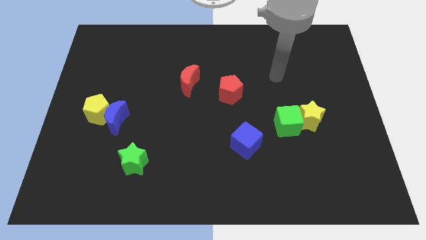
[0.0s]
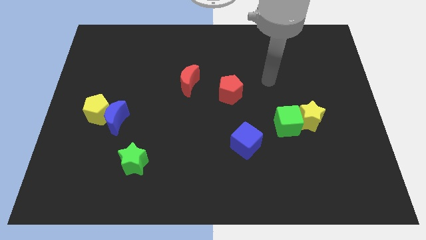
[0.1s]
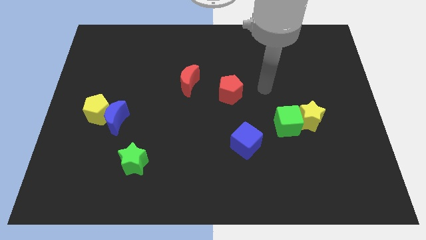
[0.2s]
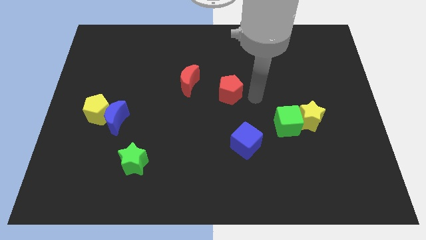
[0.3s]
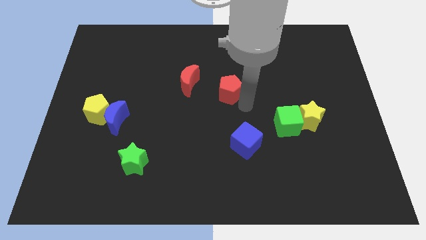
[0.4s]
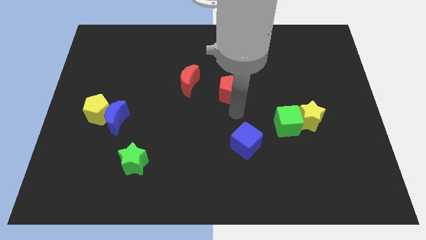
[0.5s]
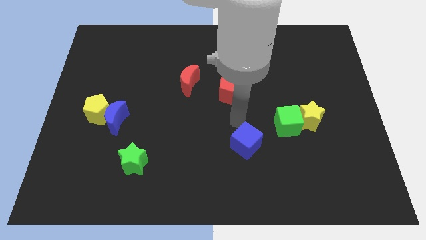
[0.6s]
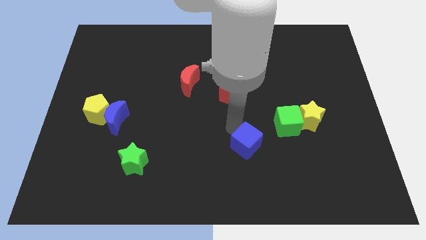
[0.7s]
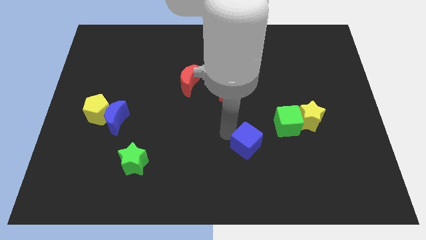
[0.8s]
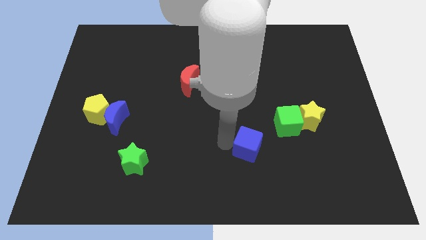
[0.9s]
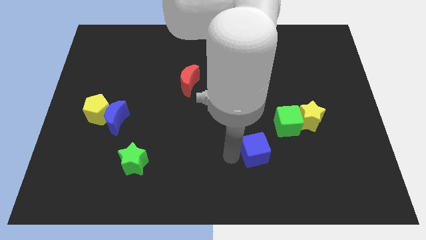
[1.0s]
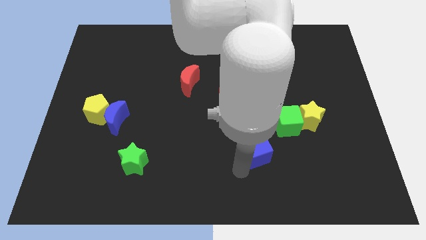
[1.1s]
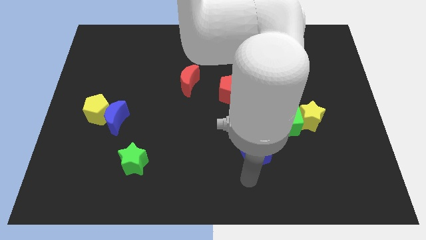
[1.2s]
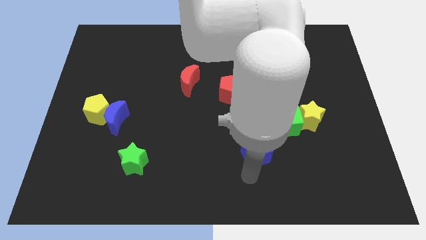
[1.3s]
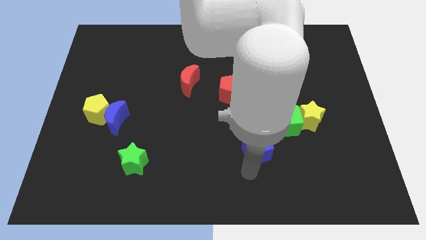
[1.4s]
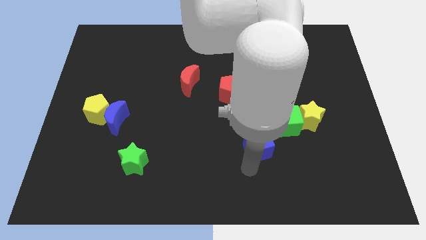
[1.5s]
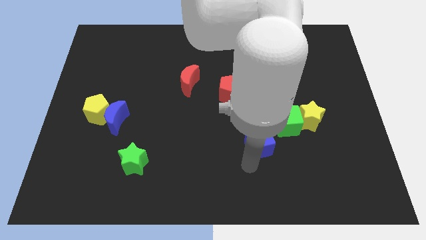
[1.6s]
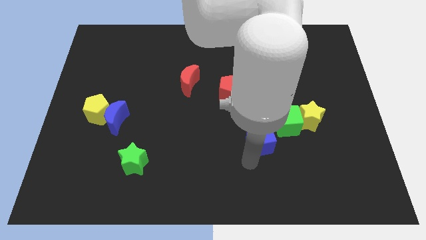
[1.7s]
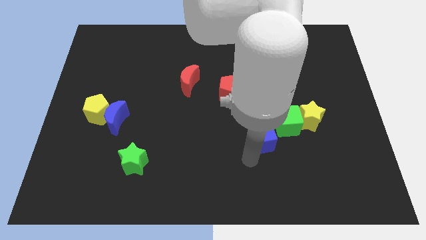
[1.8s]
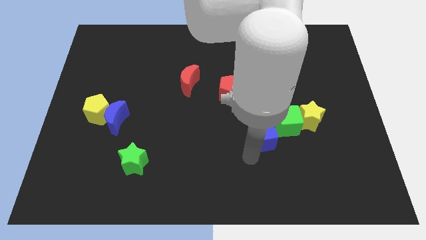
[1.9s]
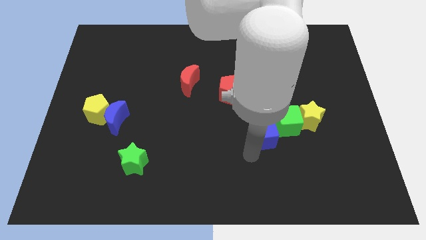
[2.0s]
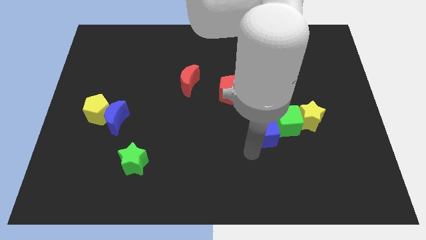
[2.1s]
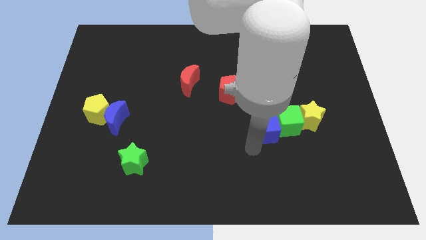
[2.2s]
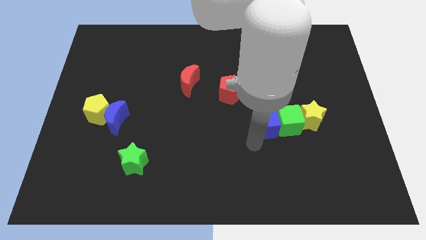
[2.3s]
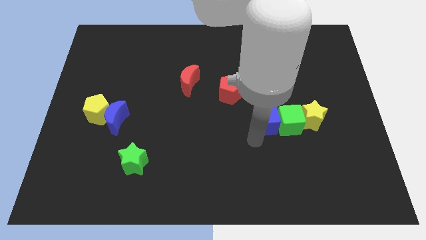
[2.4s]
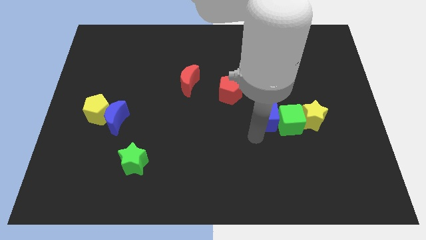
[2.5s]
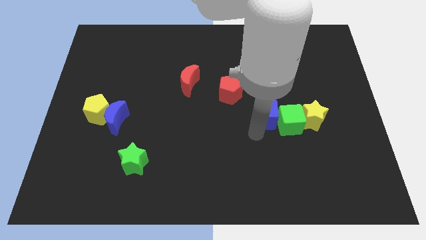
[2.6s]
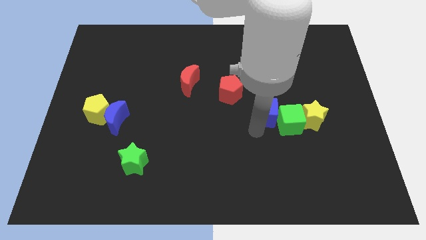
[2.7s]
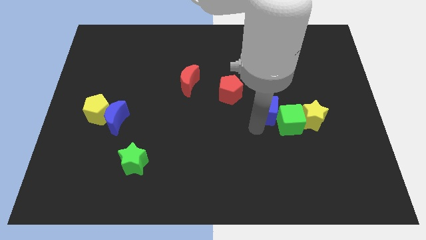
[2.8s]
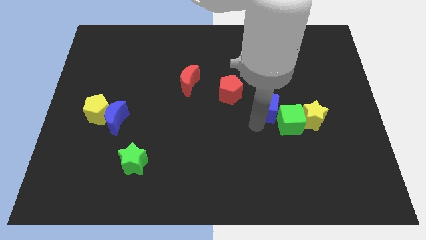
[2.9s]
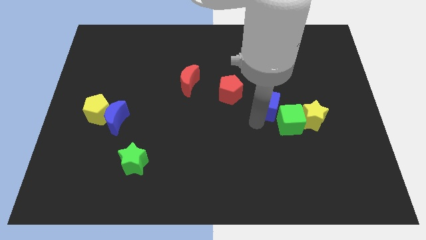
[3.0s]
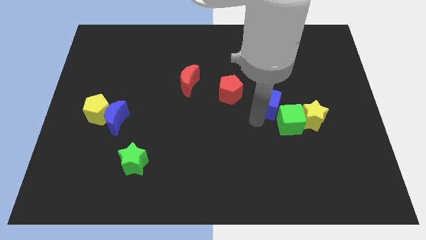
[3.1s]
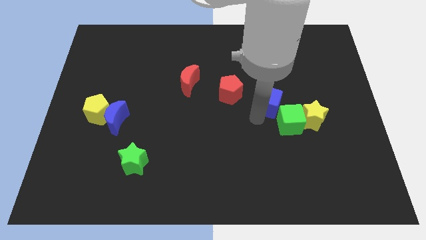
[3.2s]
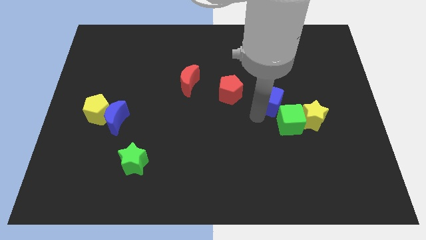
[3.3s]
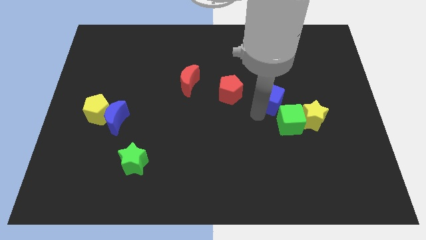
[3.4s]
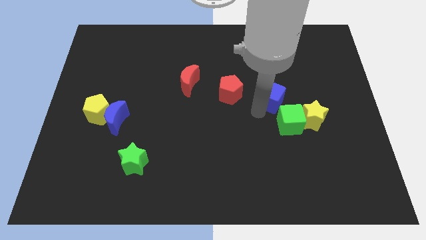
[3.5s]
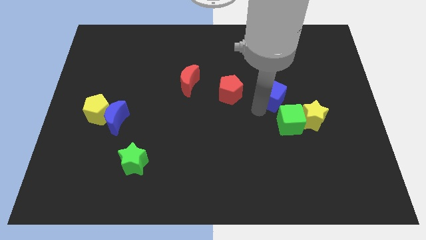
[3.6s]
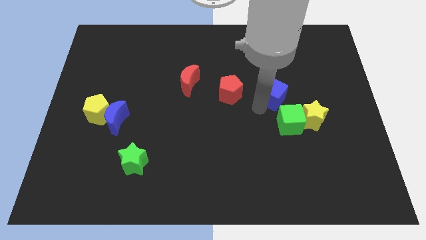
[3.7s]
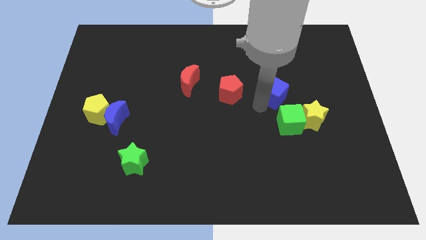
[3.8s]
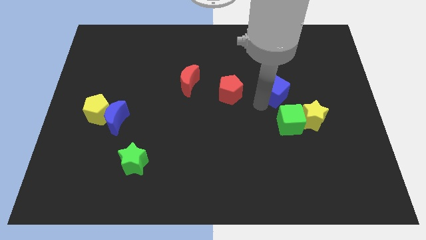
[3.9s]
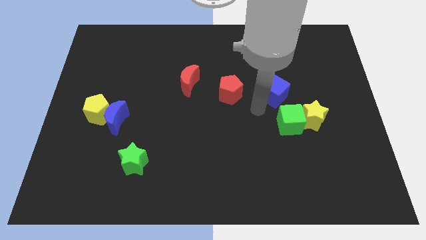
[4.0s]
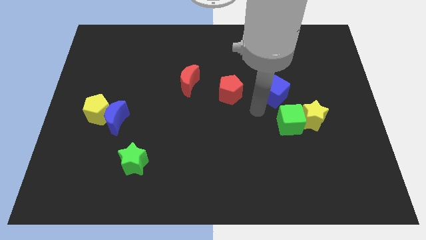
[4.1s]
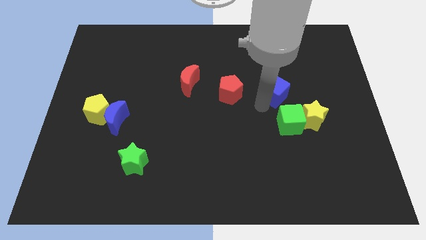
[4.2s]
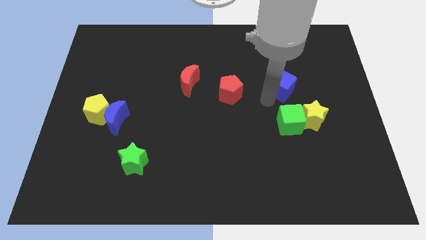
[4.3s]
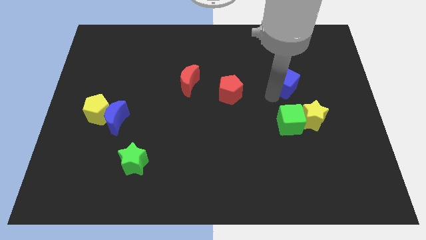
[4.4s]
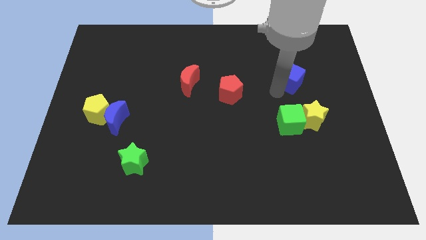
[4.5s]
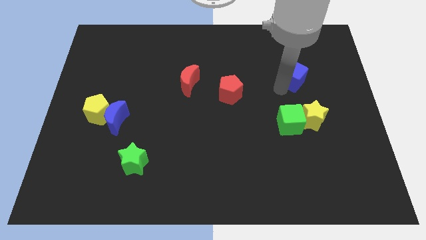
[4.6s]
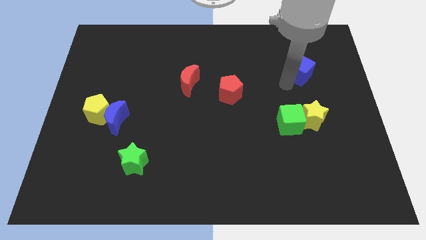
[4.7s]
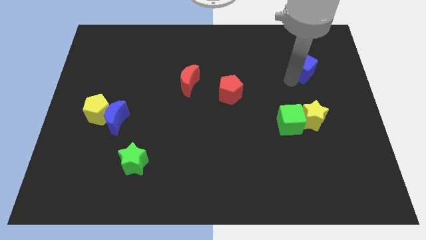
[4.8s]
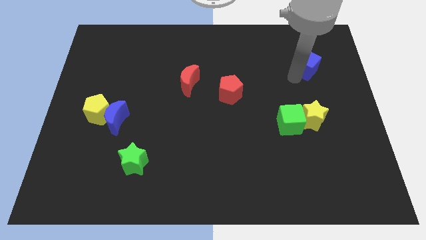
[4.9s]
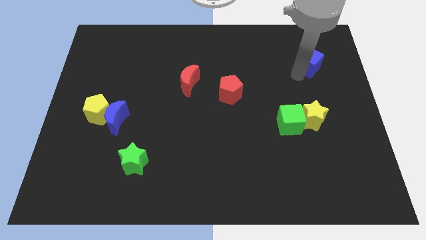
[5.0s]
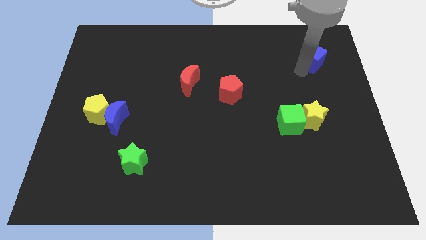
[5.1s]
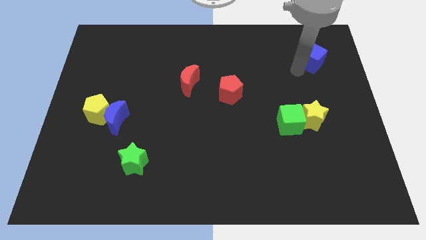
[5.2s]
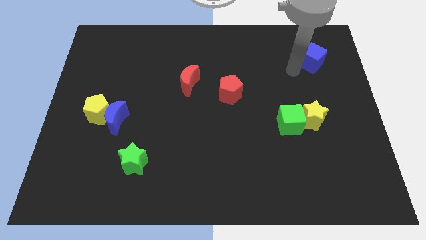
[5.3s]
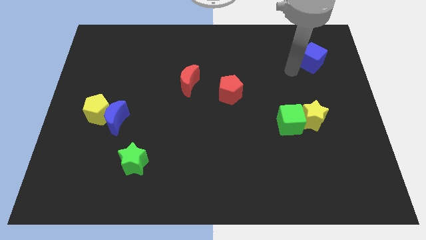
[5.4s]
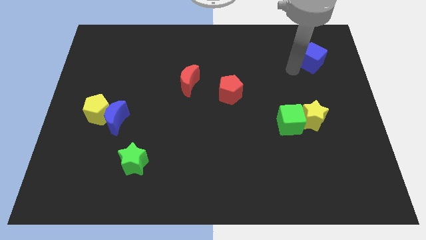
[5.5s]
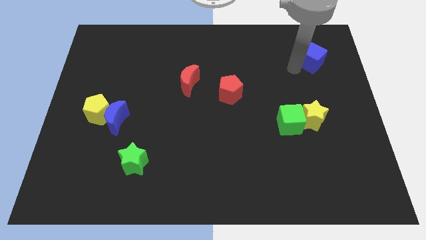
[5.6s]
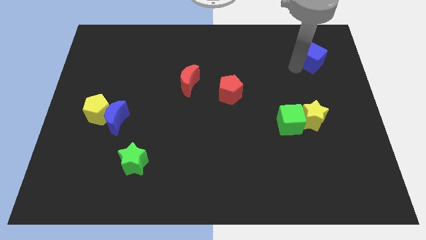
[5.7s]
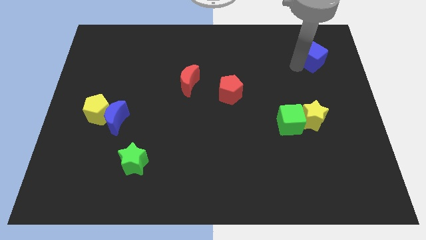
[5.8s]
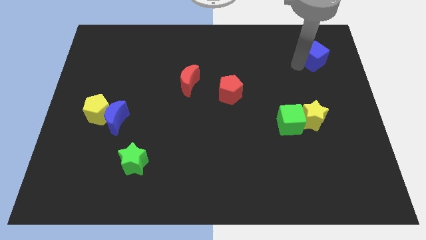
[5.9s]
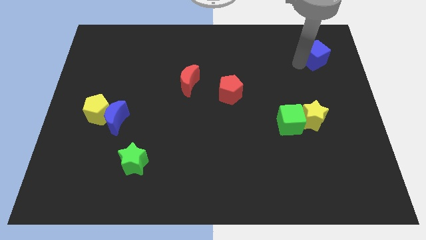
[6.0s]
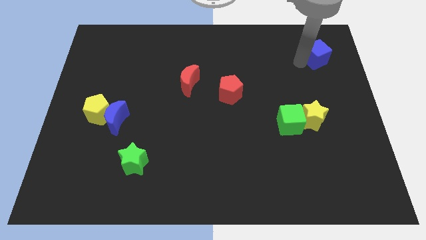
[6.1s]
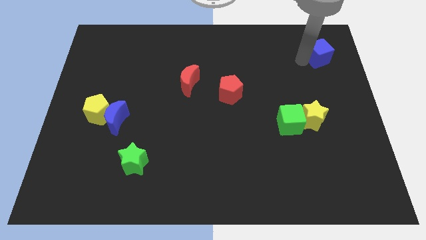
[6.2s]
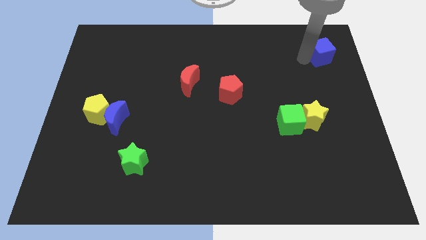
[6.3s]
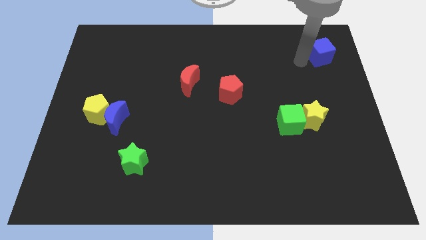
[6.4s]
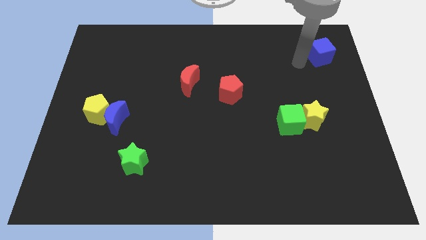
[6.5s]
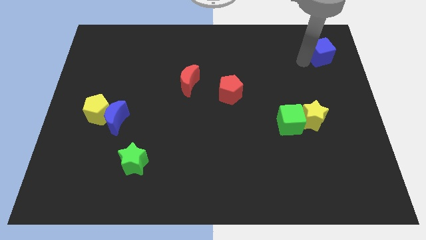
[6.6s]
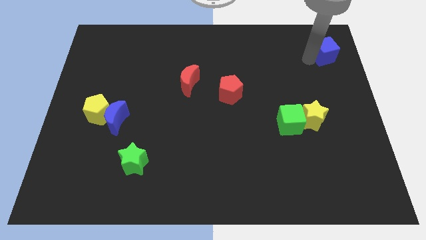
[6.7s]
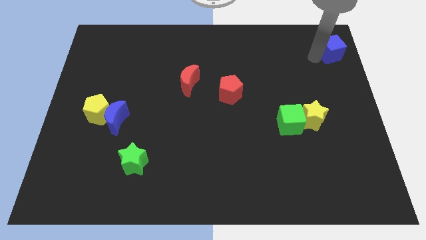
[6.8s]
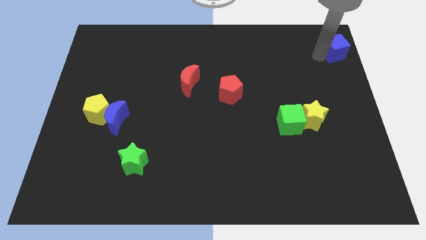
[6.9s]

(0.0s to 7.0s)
slide the blue cube to the top right of the board
